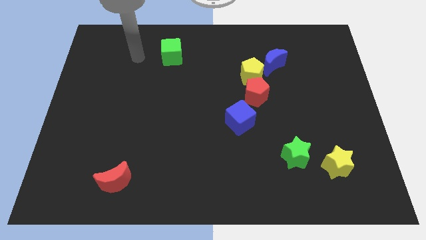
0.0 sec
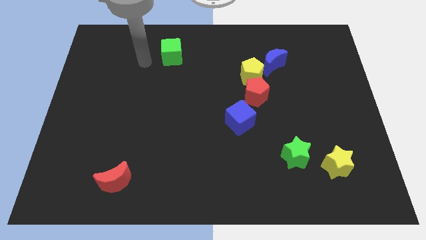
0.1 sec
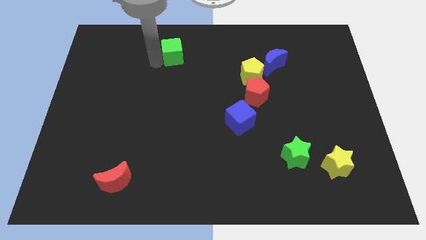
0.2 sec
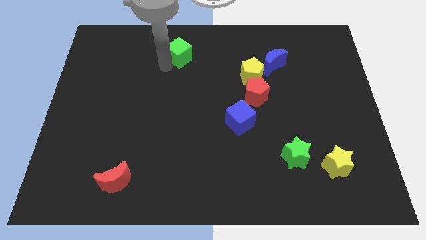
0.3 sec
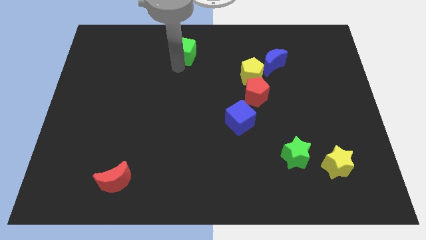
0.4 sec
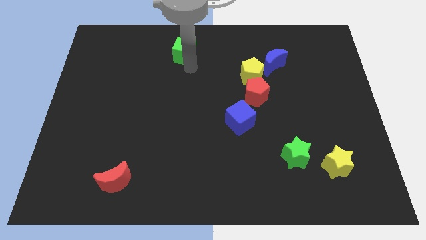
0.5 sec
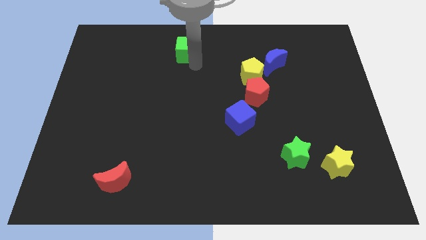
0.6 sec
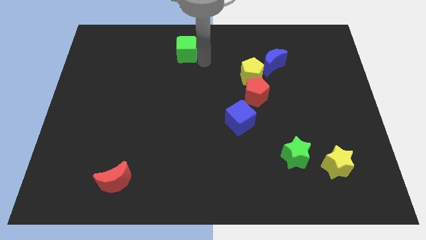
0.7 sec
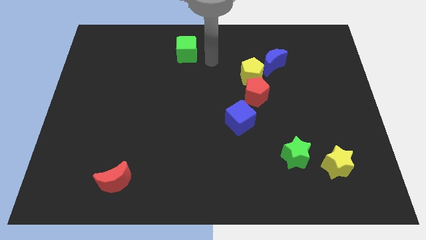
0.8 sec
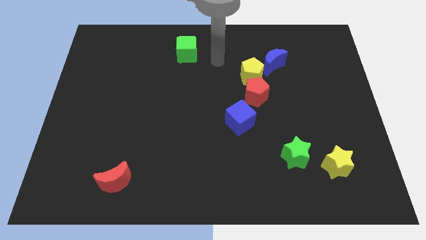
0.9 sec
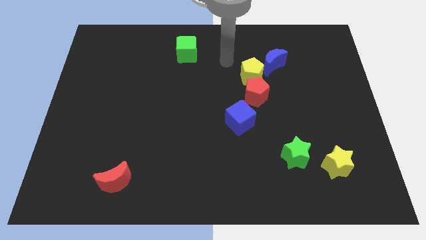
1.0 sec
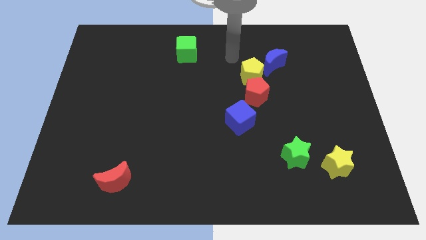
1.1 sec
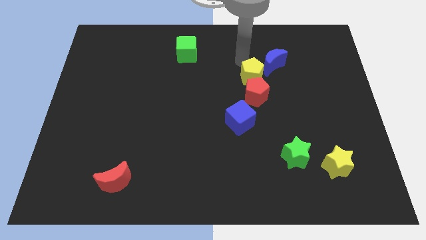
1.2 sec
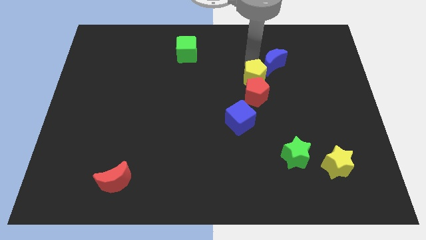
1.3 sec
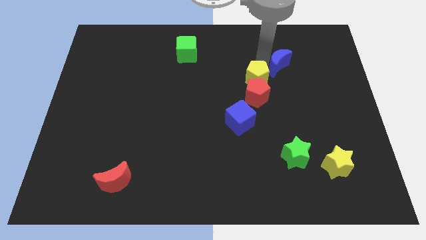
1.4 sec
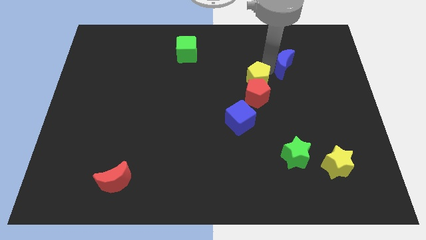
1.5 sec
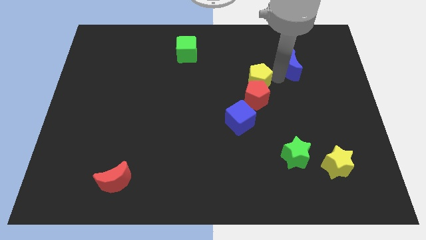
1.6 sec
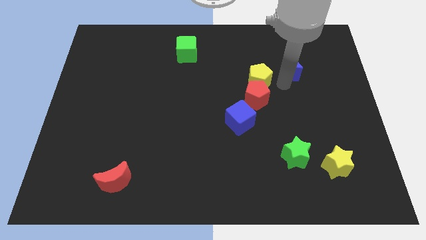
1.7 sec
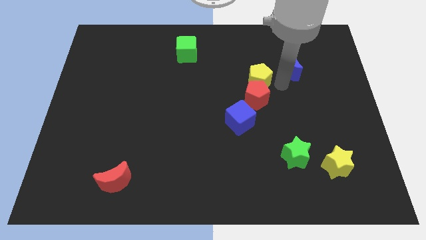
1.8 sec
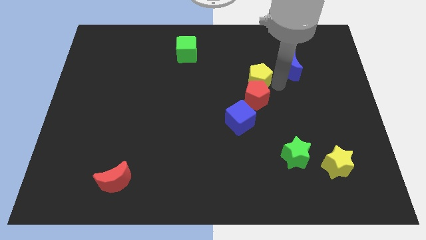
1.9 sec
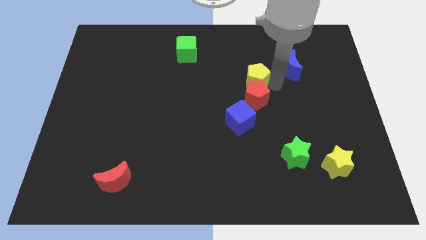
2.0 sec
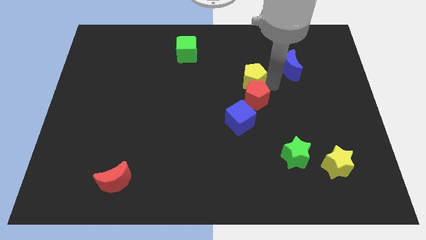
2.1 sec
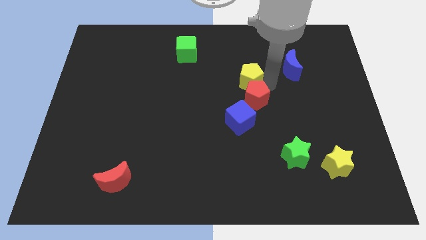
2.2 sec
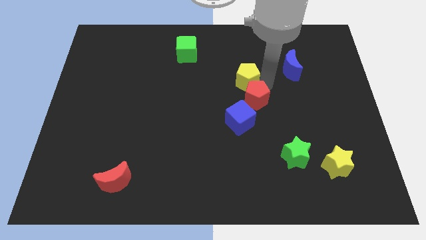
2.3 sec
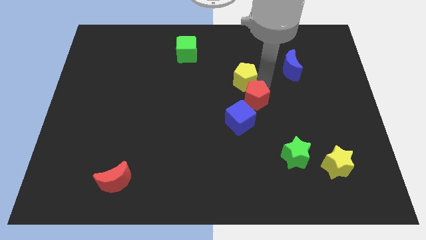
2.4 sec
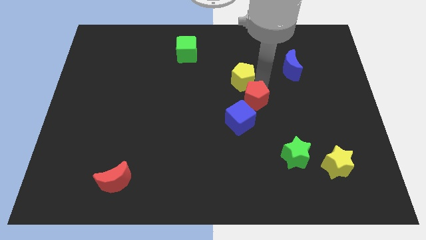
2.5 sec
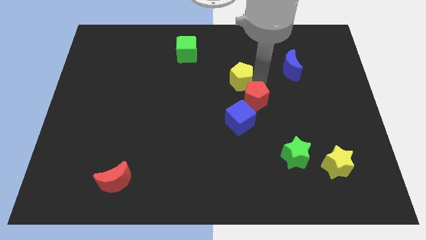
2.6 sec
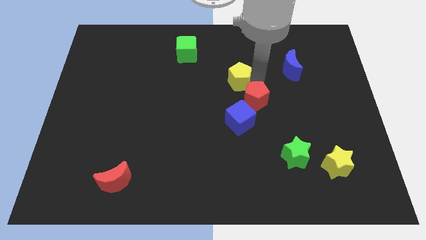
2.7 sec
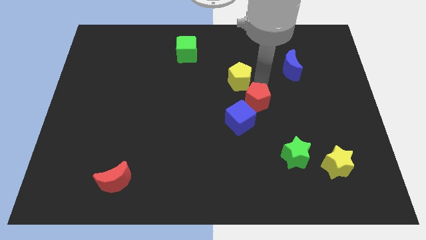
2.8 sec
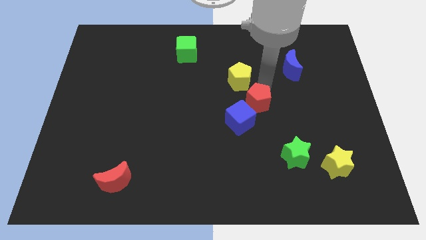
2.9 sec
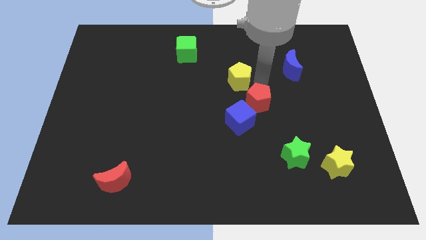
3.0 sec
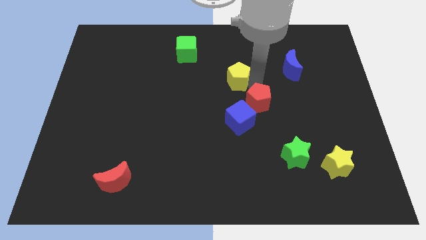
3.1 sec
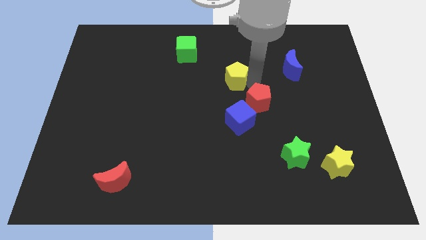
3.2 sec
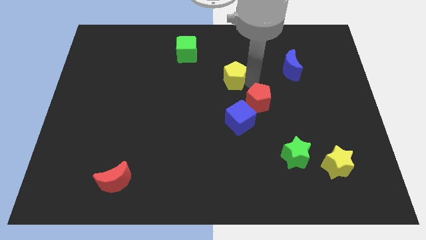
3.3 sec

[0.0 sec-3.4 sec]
separate the yellow pentagon from the red pentagon and blue moon

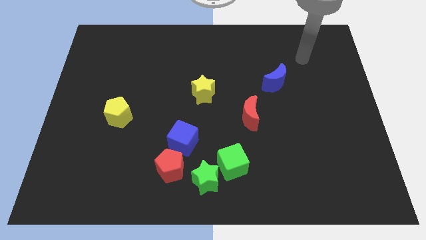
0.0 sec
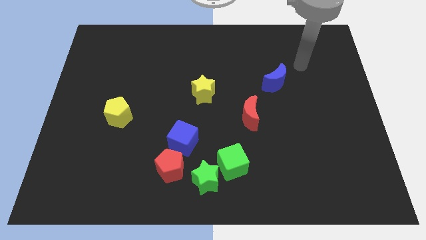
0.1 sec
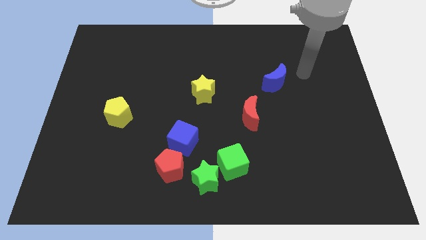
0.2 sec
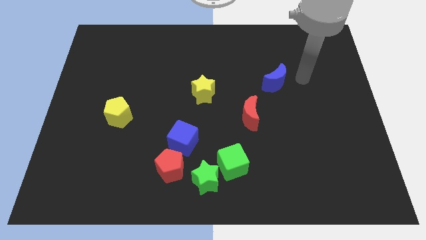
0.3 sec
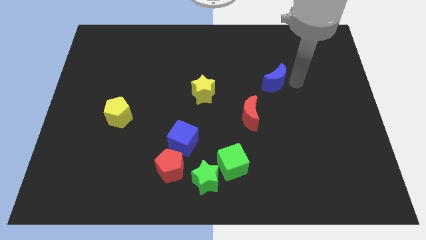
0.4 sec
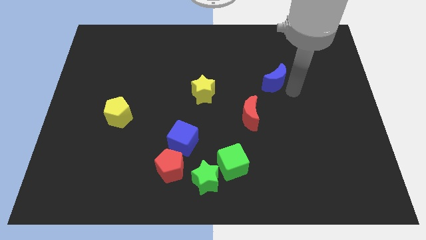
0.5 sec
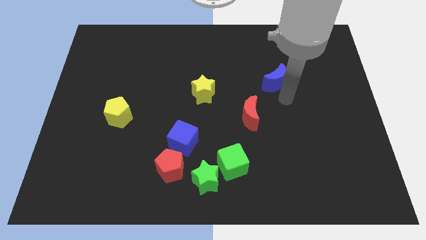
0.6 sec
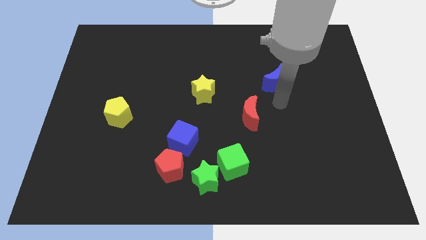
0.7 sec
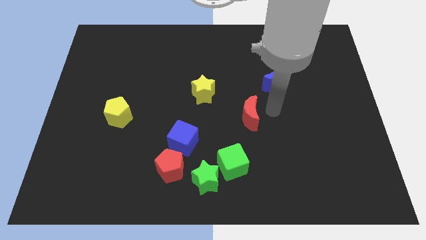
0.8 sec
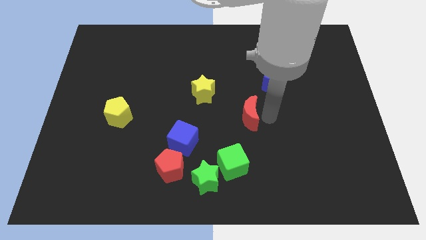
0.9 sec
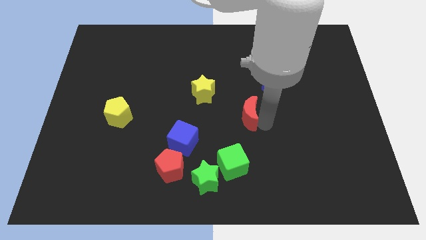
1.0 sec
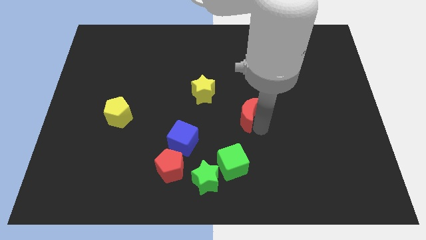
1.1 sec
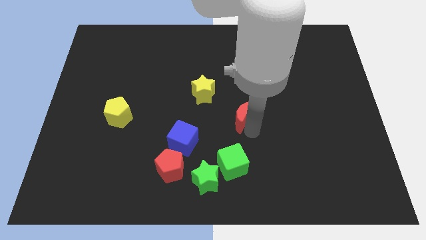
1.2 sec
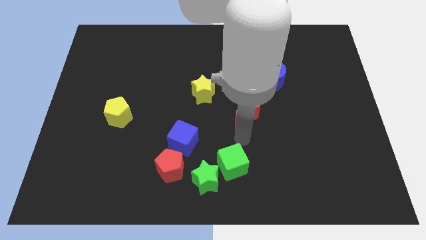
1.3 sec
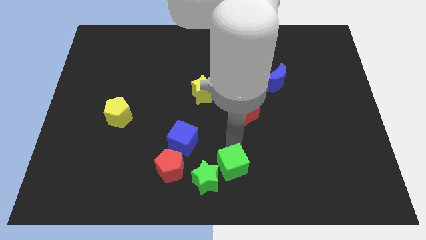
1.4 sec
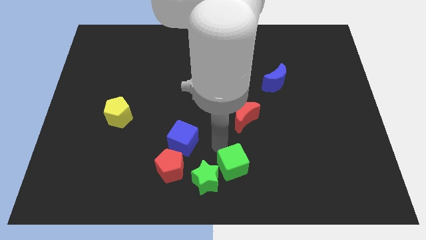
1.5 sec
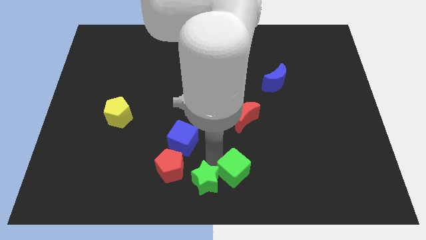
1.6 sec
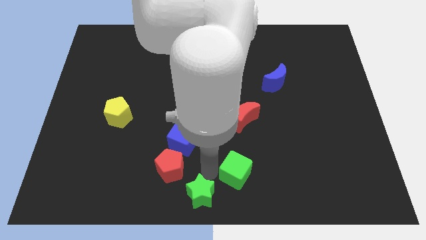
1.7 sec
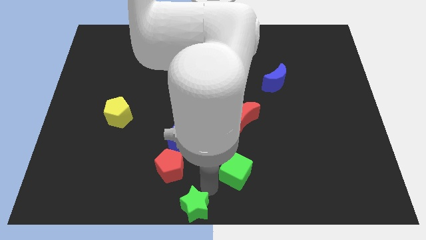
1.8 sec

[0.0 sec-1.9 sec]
move the green cube away from the green star

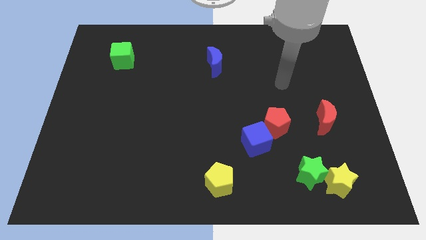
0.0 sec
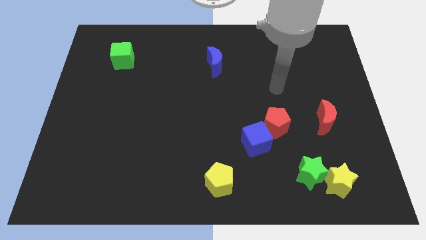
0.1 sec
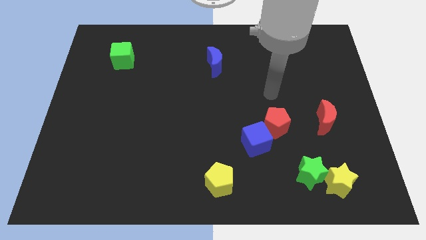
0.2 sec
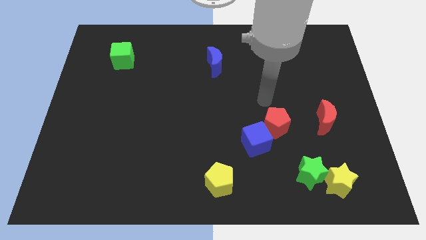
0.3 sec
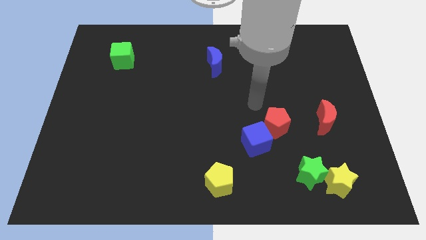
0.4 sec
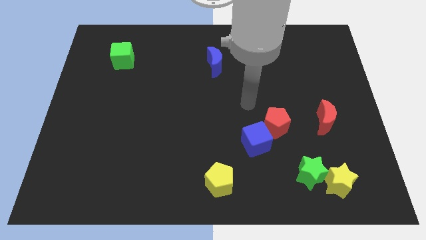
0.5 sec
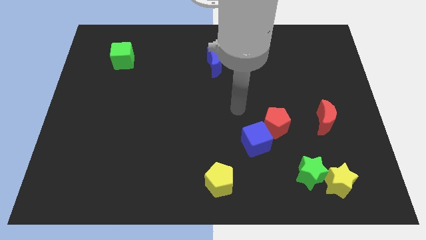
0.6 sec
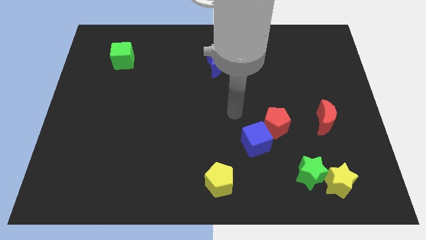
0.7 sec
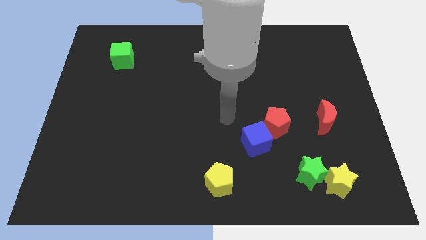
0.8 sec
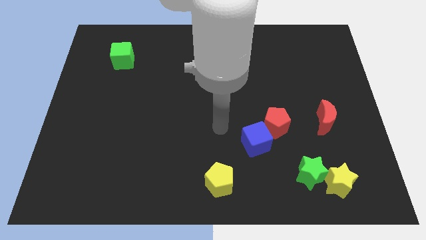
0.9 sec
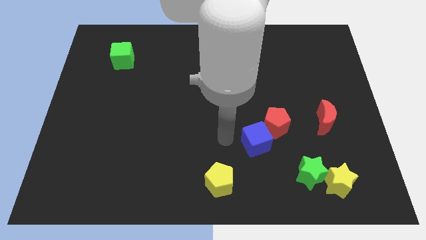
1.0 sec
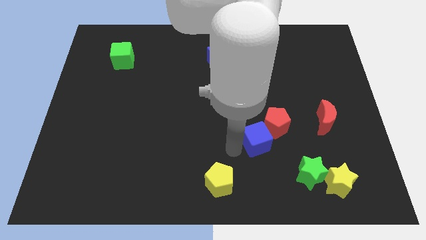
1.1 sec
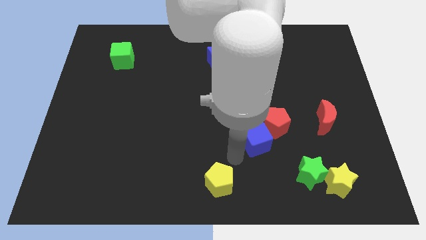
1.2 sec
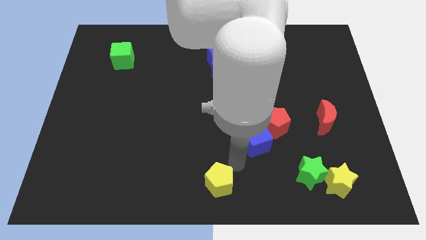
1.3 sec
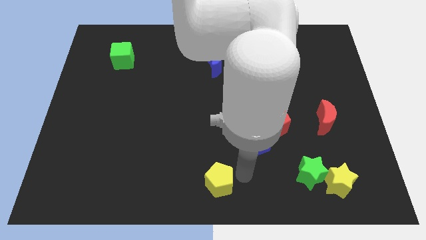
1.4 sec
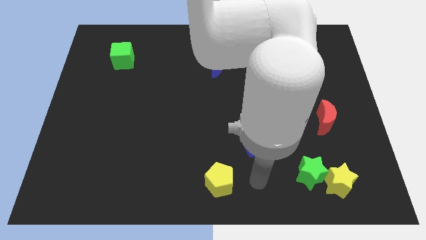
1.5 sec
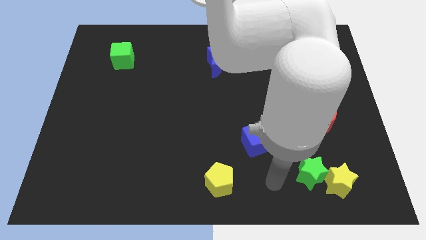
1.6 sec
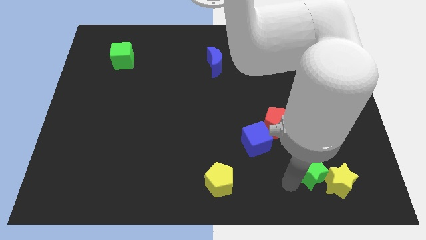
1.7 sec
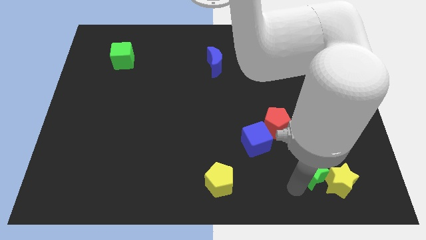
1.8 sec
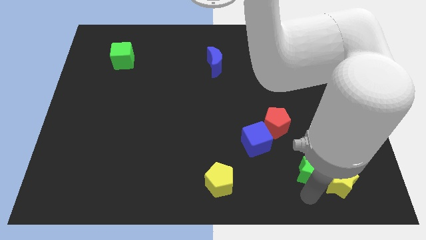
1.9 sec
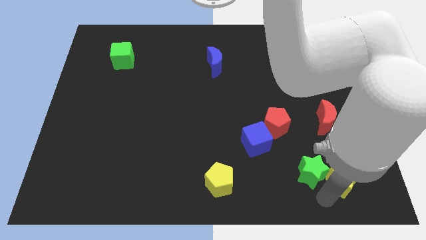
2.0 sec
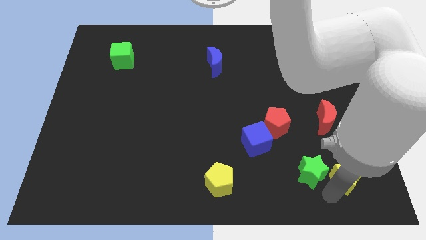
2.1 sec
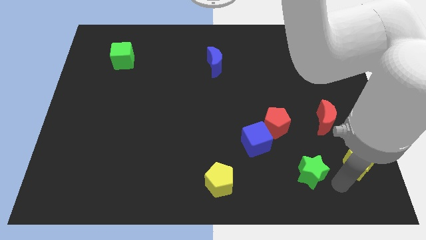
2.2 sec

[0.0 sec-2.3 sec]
pull the green star apart from the yellow star

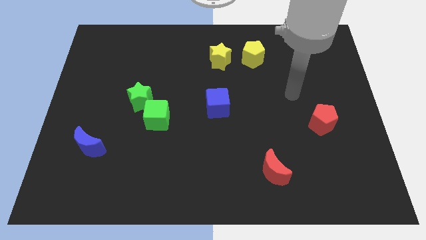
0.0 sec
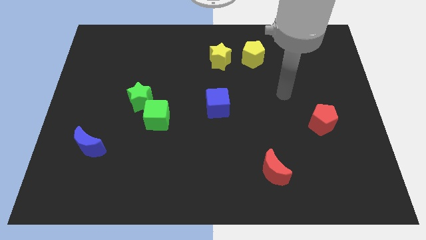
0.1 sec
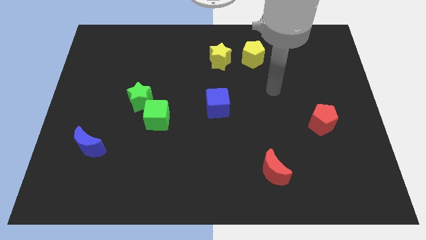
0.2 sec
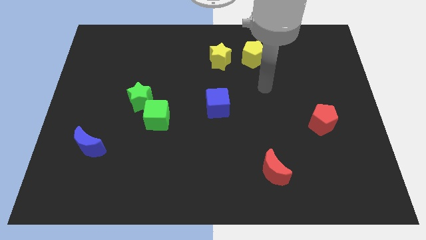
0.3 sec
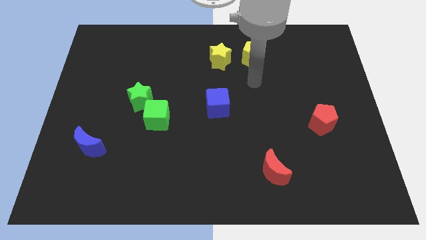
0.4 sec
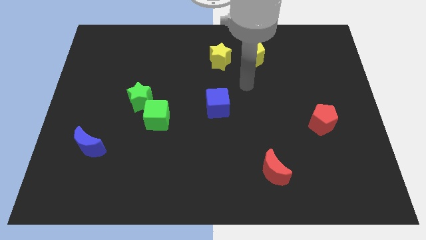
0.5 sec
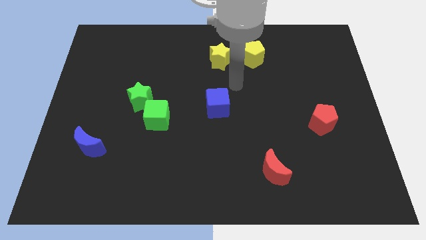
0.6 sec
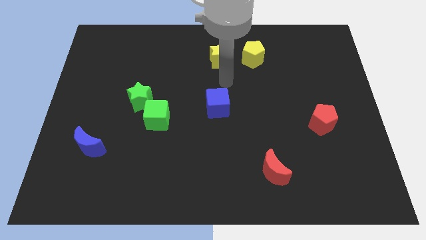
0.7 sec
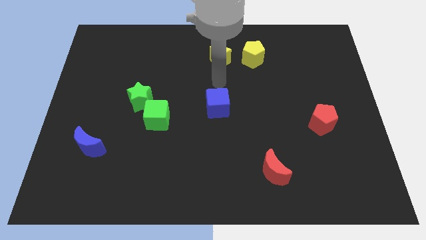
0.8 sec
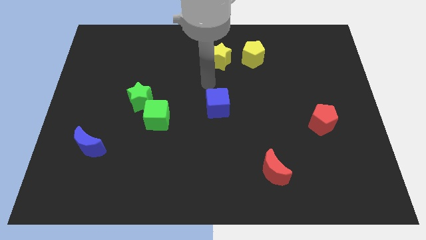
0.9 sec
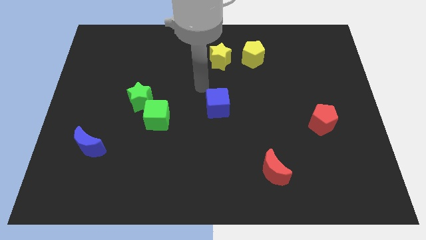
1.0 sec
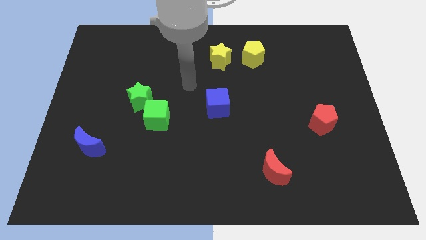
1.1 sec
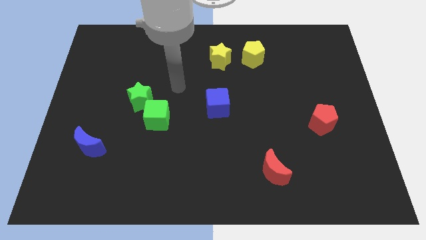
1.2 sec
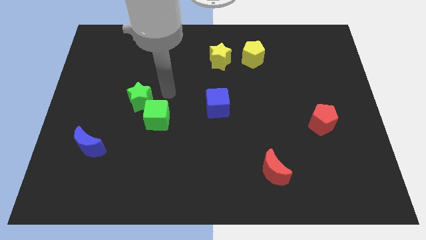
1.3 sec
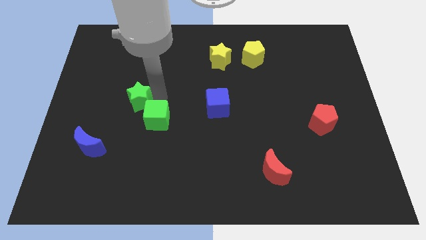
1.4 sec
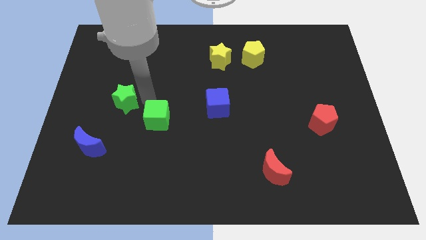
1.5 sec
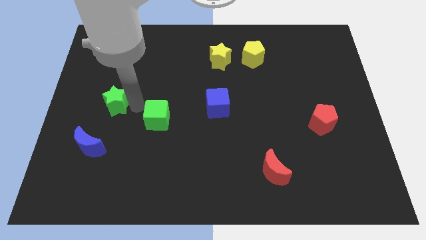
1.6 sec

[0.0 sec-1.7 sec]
pull the green cube apart from the green star

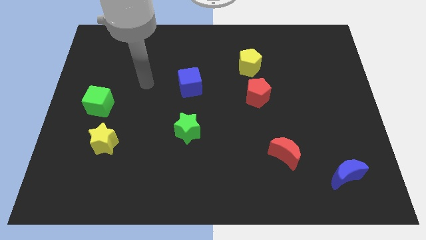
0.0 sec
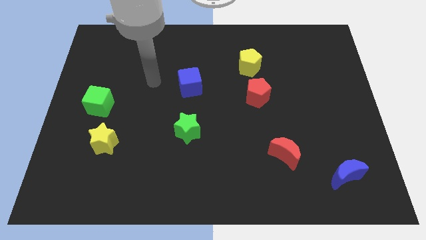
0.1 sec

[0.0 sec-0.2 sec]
pull the red pentagon apart from the yellow pentagon
